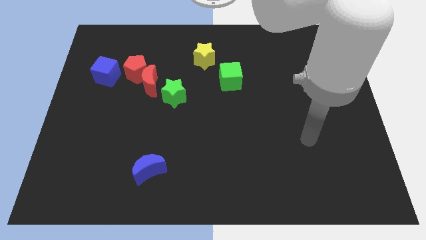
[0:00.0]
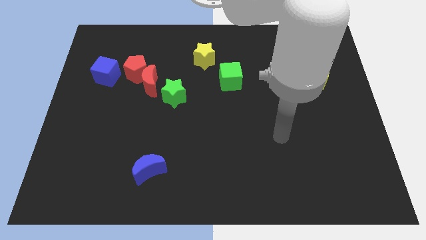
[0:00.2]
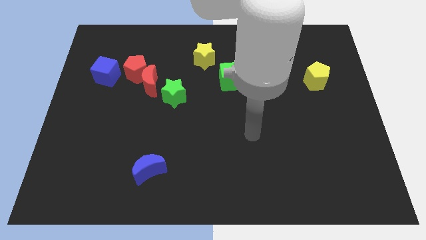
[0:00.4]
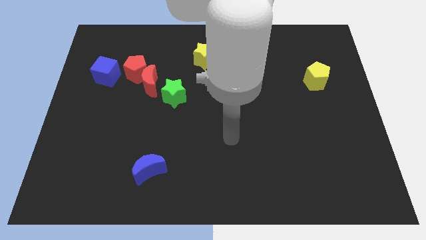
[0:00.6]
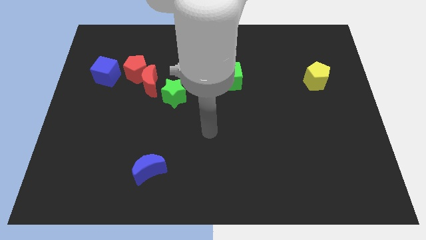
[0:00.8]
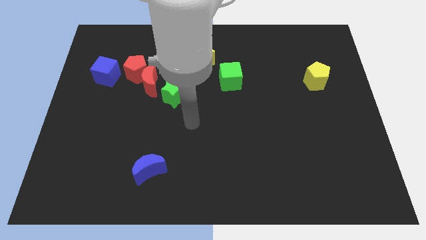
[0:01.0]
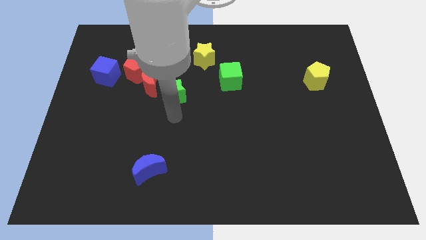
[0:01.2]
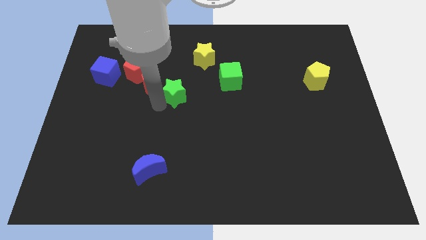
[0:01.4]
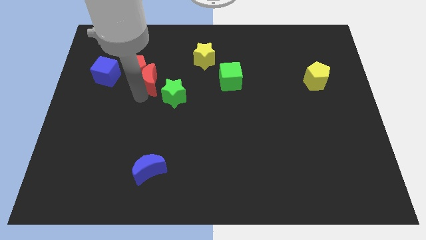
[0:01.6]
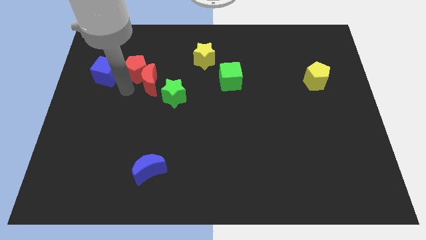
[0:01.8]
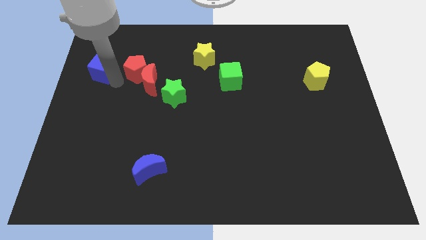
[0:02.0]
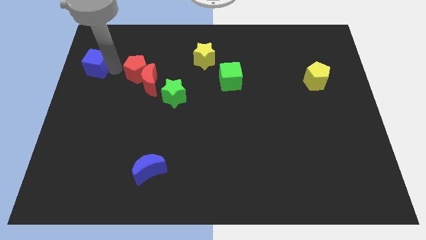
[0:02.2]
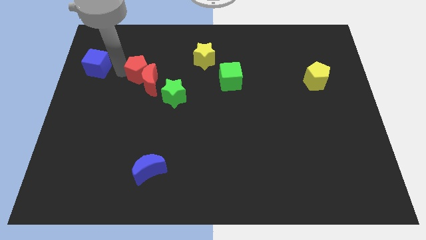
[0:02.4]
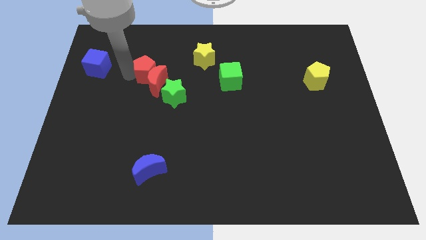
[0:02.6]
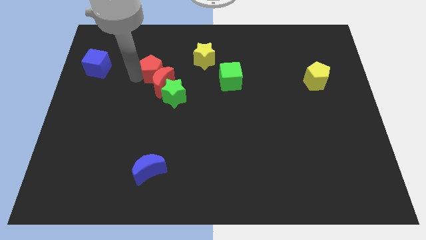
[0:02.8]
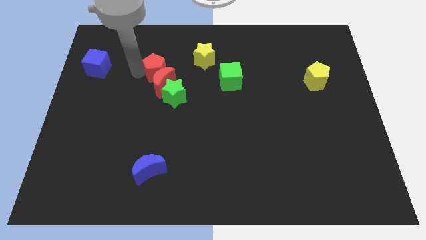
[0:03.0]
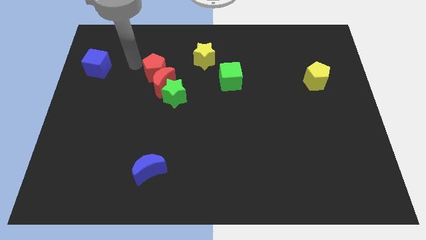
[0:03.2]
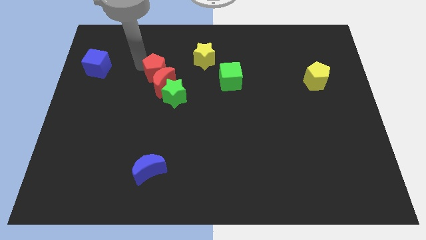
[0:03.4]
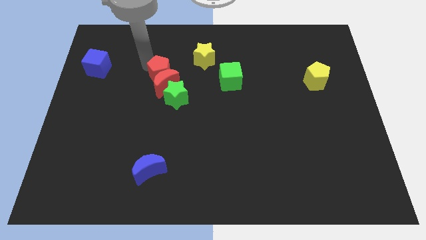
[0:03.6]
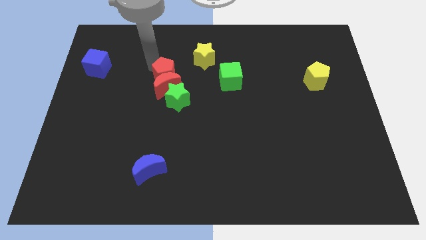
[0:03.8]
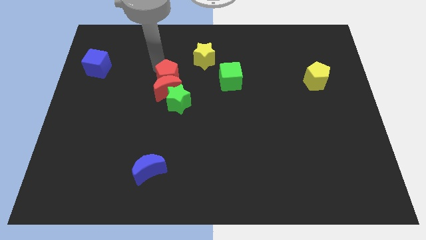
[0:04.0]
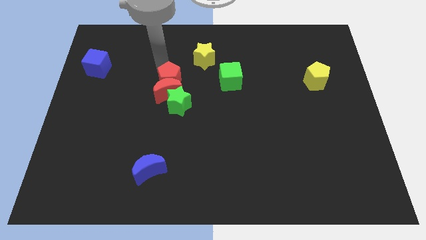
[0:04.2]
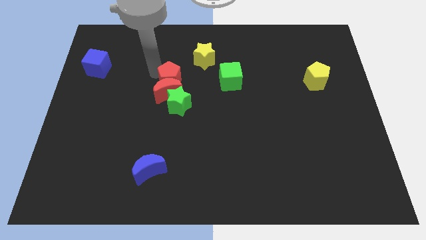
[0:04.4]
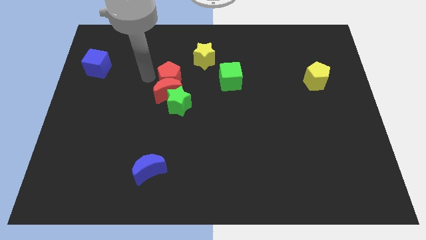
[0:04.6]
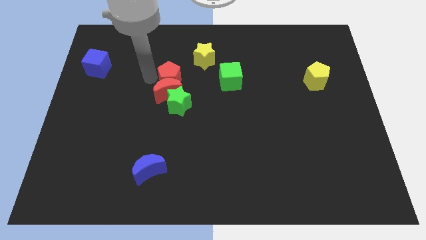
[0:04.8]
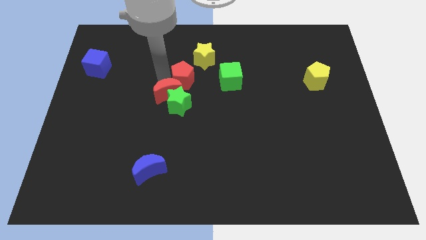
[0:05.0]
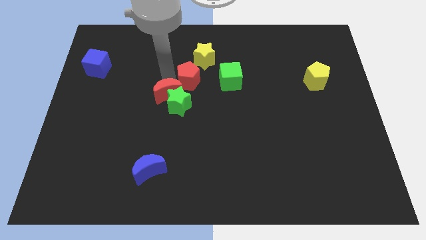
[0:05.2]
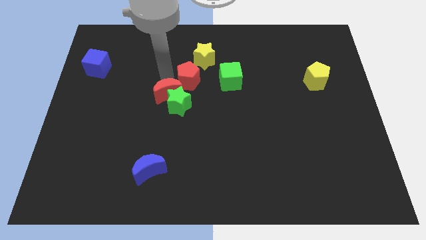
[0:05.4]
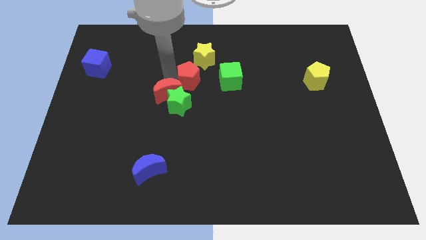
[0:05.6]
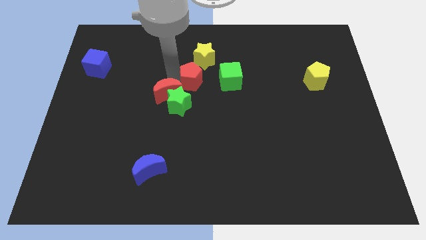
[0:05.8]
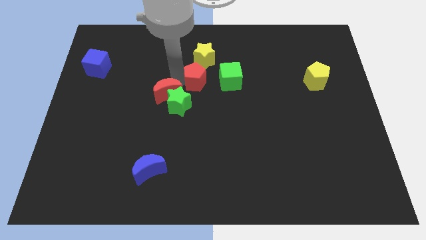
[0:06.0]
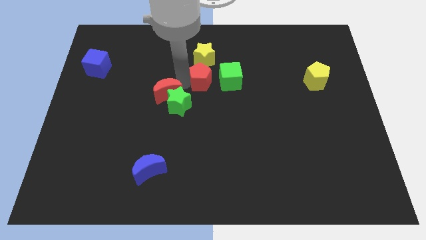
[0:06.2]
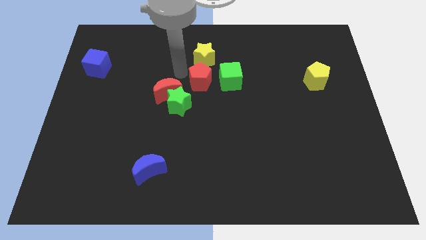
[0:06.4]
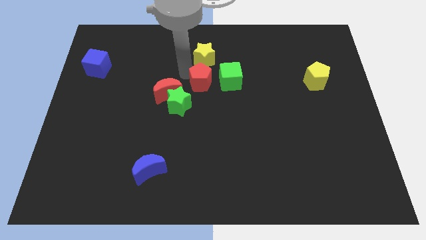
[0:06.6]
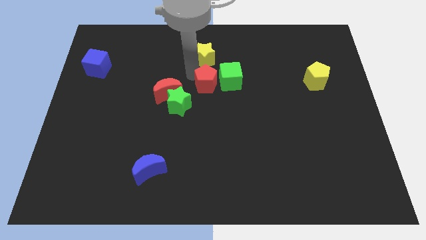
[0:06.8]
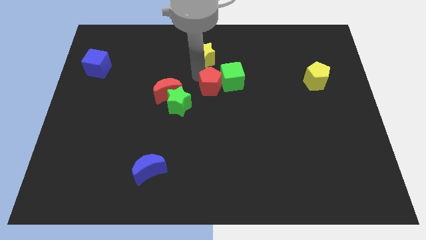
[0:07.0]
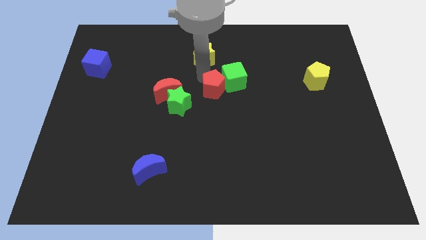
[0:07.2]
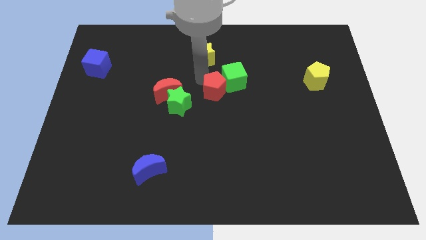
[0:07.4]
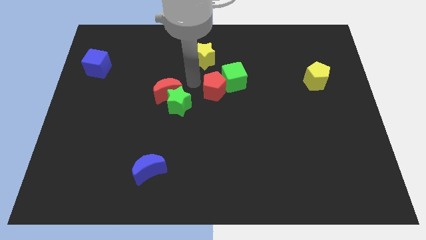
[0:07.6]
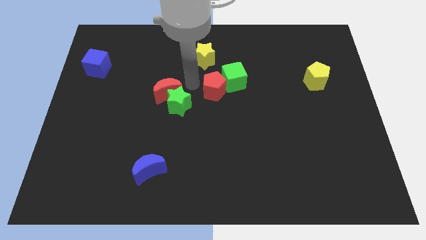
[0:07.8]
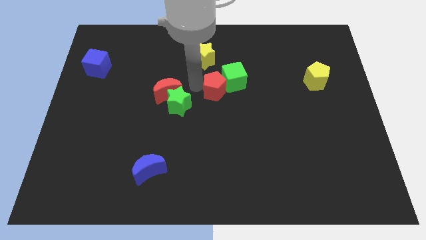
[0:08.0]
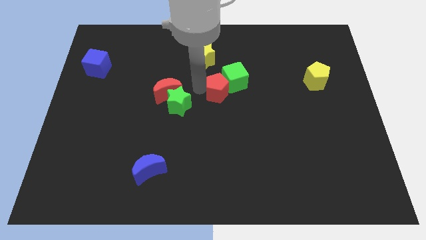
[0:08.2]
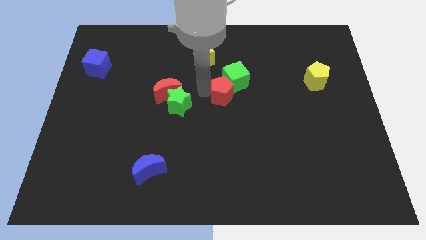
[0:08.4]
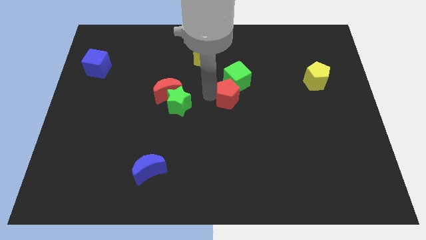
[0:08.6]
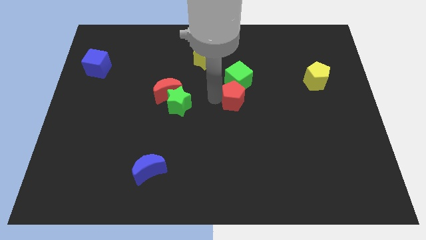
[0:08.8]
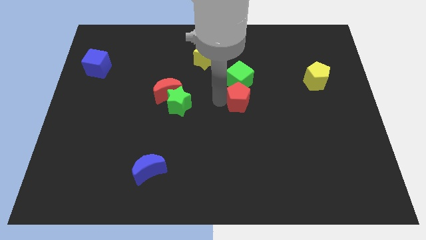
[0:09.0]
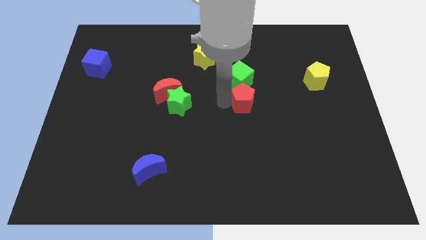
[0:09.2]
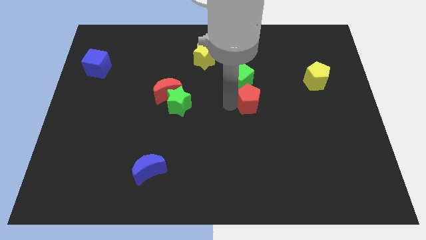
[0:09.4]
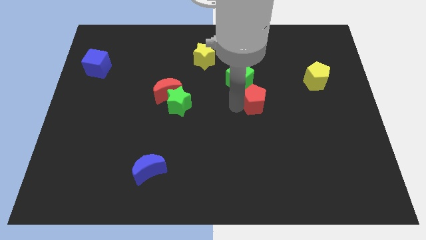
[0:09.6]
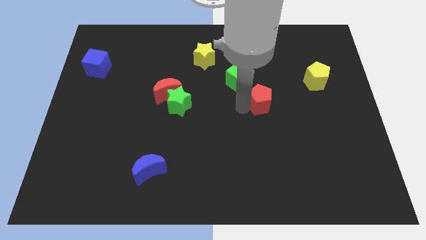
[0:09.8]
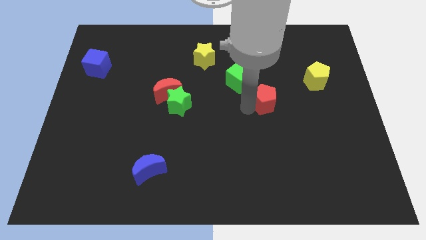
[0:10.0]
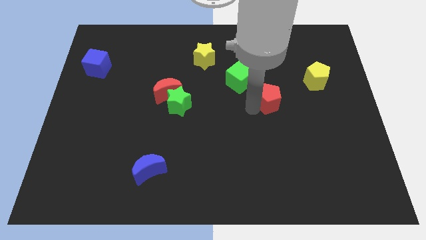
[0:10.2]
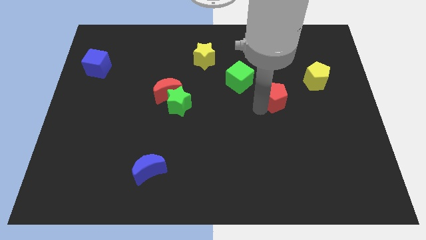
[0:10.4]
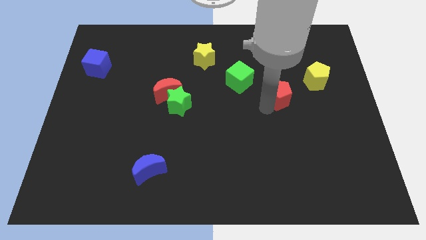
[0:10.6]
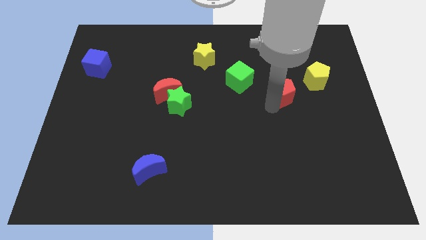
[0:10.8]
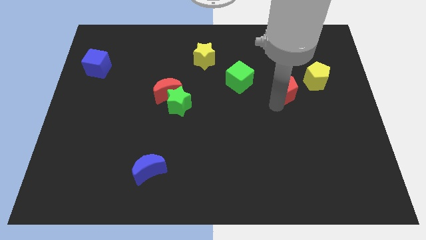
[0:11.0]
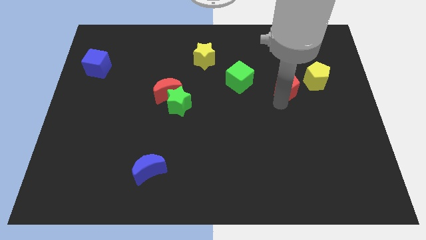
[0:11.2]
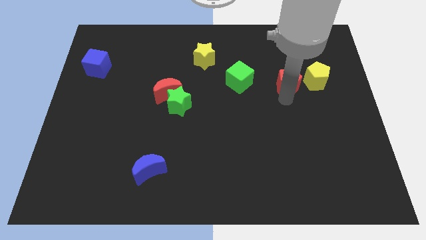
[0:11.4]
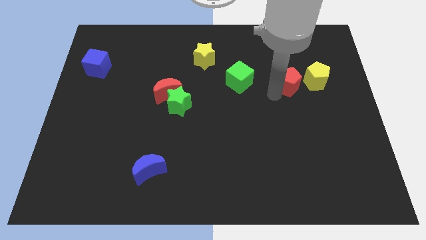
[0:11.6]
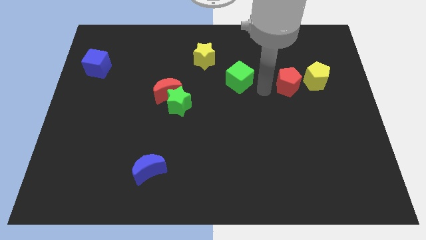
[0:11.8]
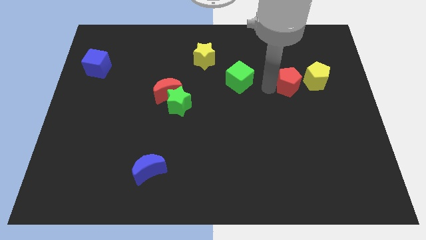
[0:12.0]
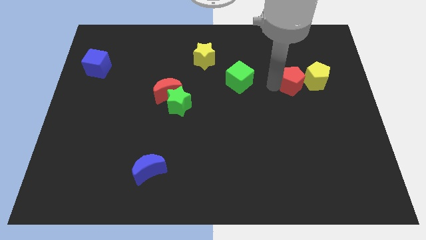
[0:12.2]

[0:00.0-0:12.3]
put the red pentagon towards the yellow pentagon

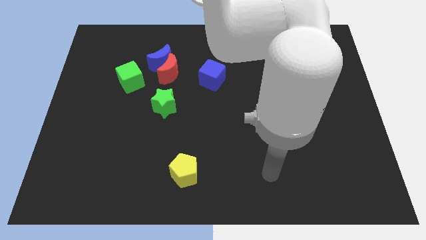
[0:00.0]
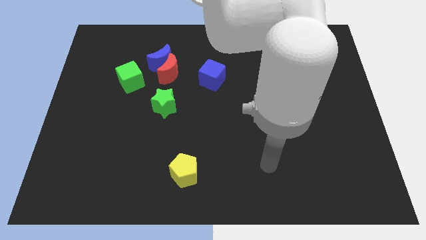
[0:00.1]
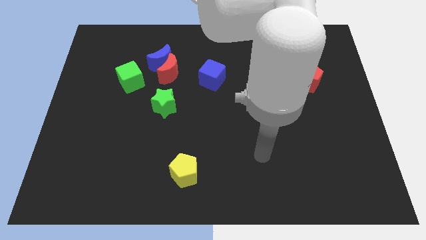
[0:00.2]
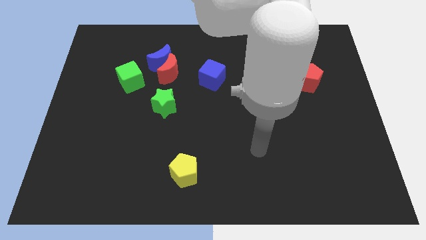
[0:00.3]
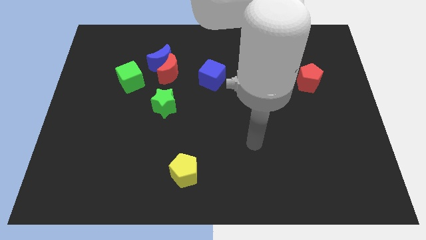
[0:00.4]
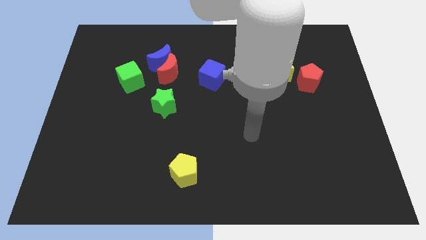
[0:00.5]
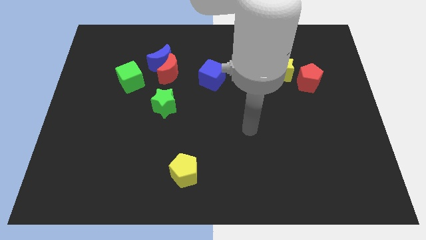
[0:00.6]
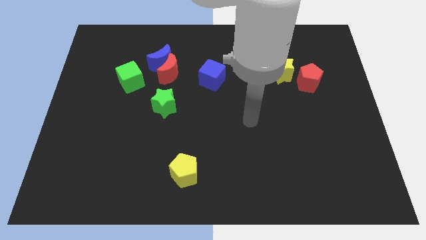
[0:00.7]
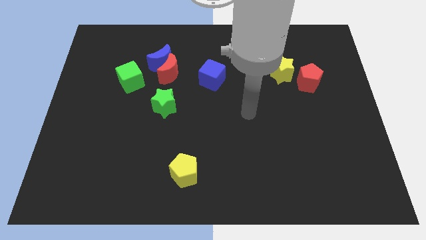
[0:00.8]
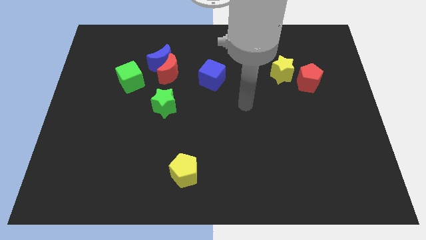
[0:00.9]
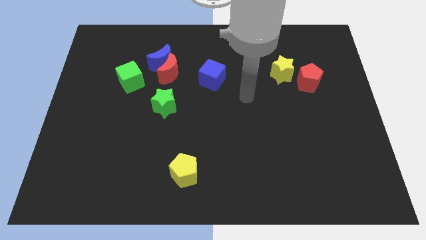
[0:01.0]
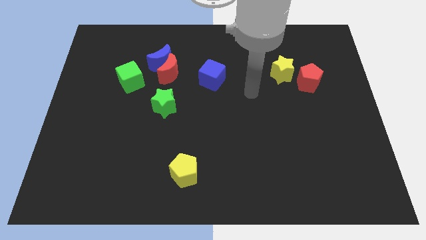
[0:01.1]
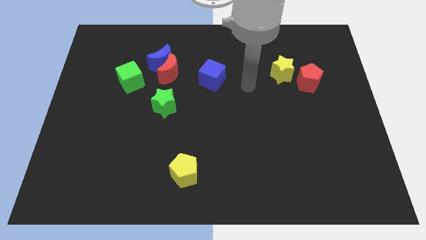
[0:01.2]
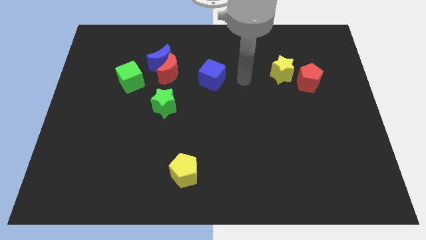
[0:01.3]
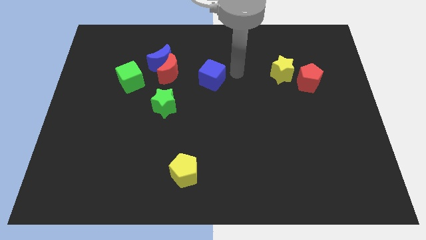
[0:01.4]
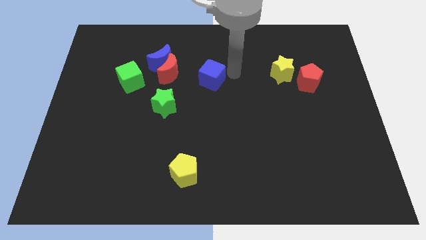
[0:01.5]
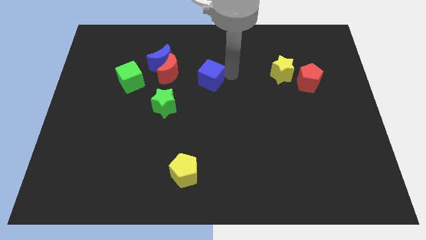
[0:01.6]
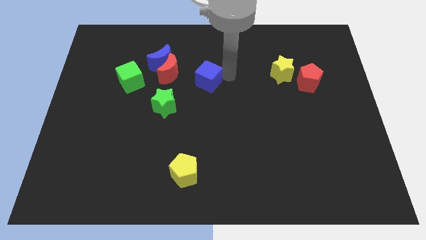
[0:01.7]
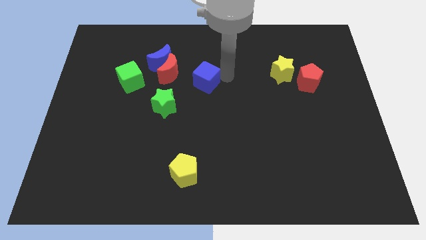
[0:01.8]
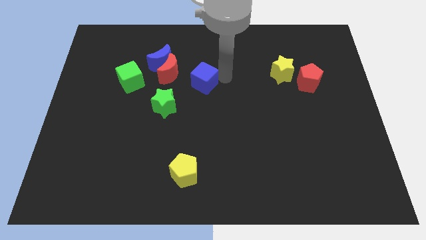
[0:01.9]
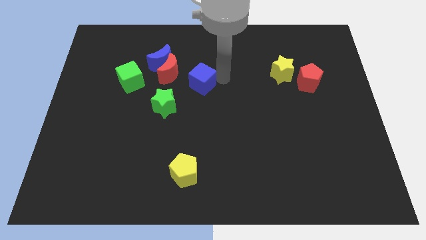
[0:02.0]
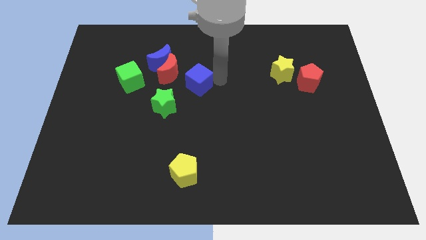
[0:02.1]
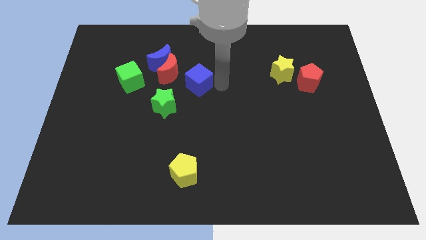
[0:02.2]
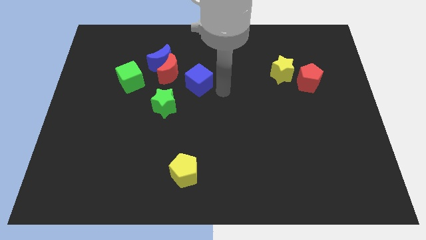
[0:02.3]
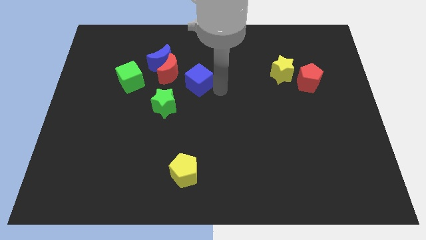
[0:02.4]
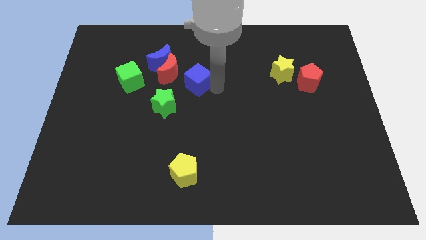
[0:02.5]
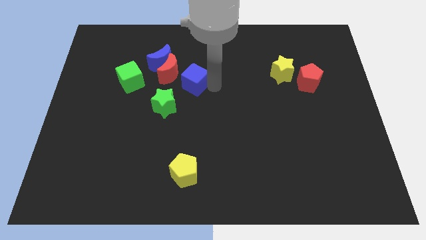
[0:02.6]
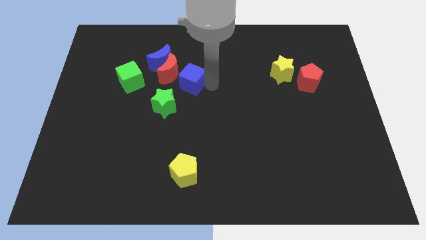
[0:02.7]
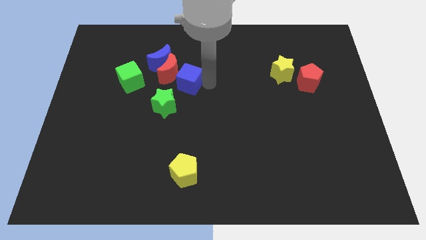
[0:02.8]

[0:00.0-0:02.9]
move the blue cube next to the red moon
